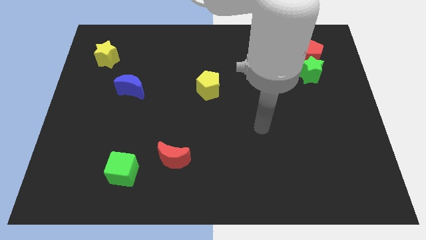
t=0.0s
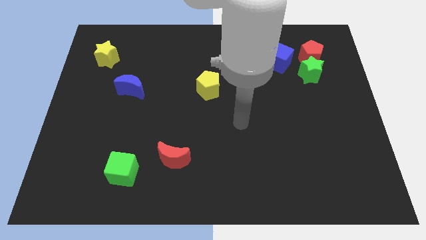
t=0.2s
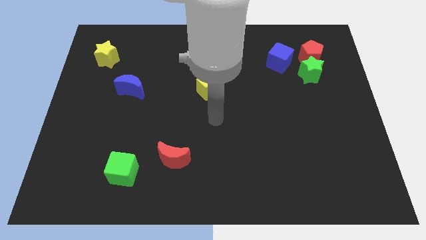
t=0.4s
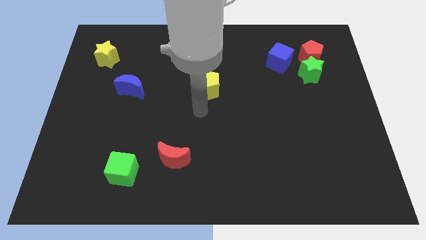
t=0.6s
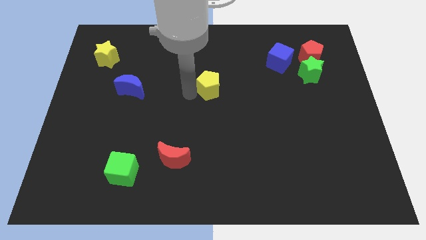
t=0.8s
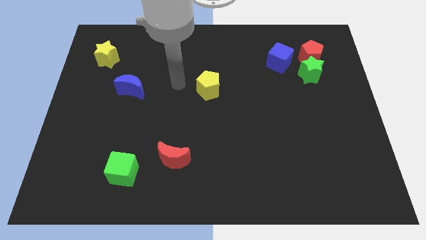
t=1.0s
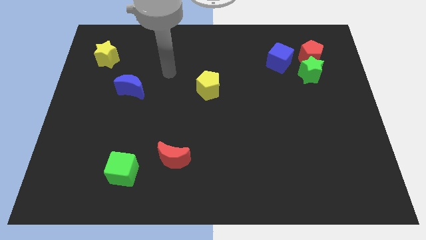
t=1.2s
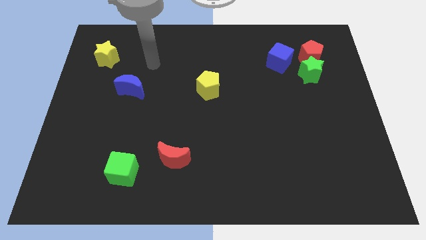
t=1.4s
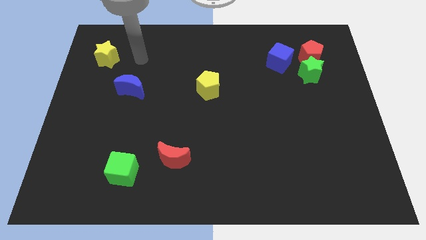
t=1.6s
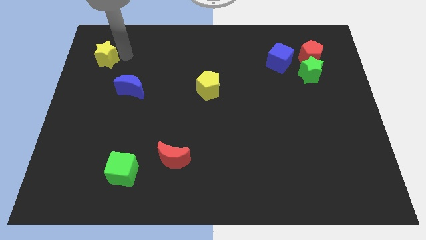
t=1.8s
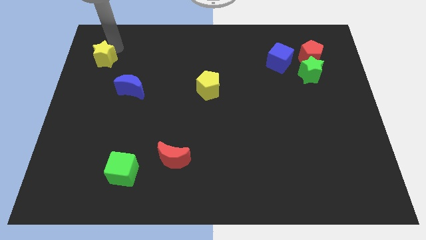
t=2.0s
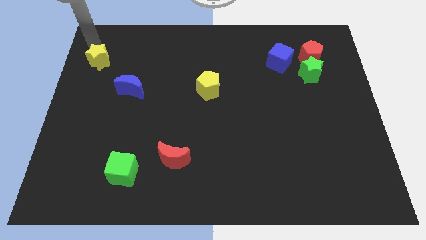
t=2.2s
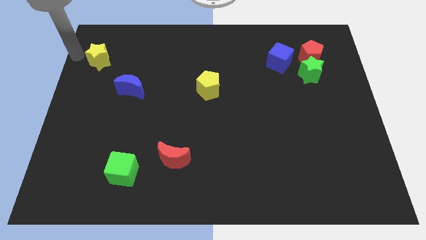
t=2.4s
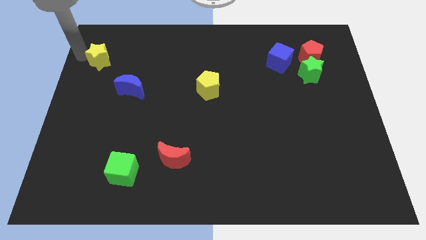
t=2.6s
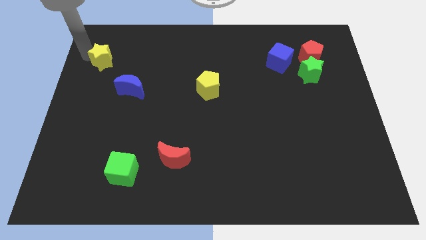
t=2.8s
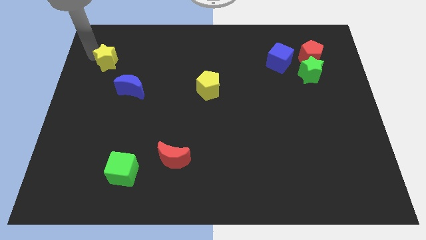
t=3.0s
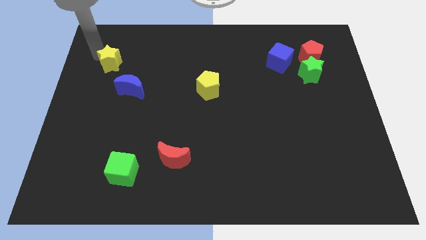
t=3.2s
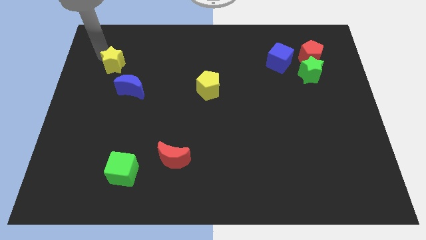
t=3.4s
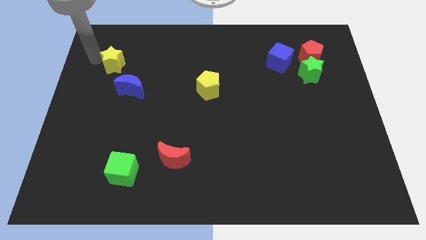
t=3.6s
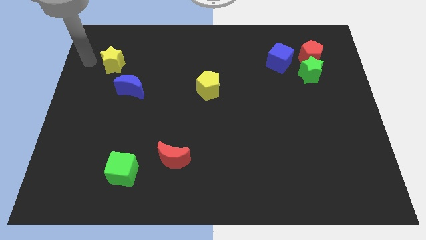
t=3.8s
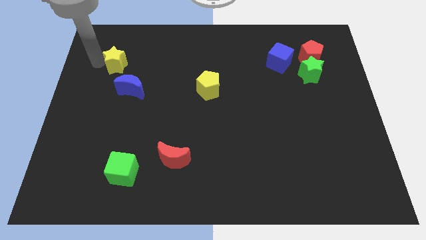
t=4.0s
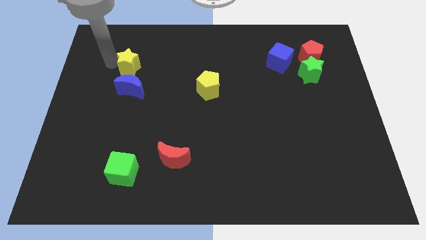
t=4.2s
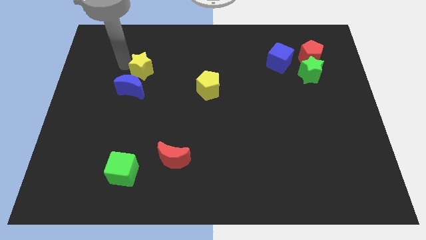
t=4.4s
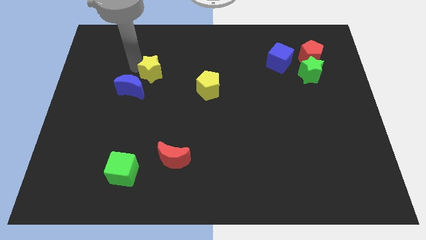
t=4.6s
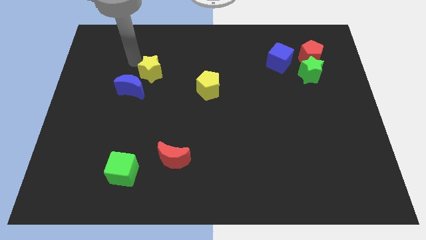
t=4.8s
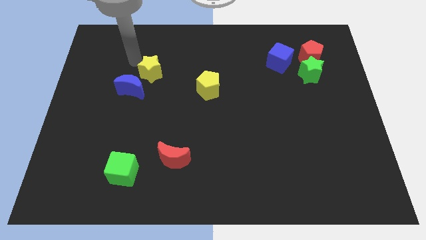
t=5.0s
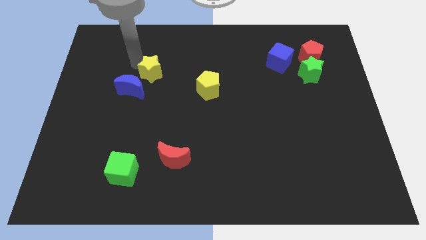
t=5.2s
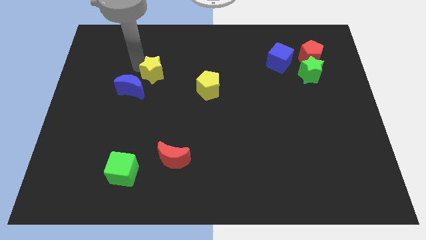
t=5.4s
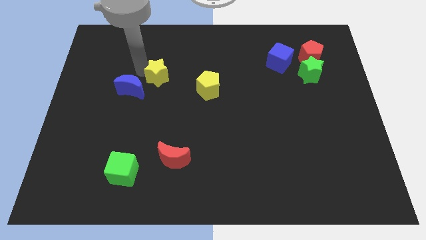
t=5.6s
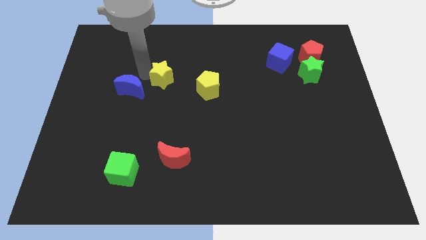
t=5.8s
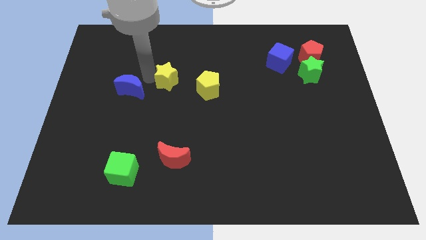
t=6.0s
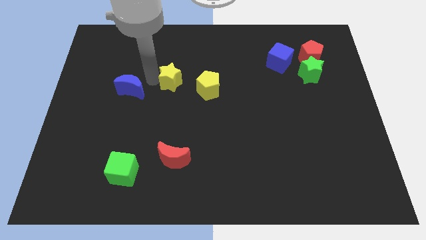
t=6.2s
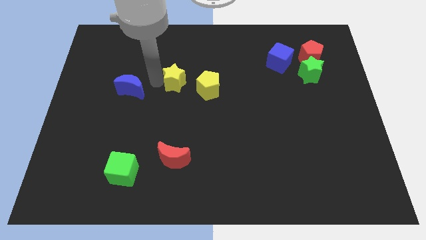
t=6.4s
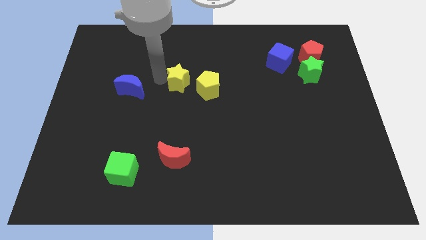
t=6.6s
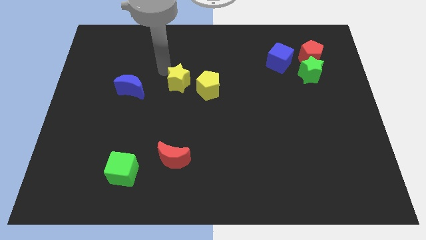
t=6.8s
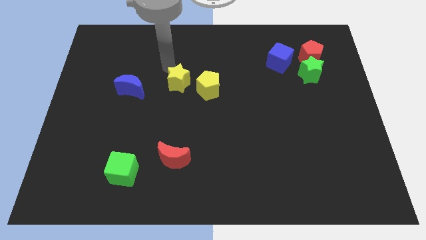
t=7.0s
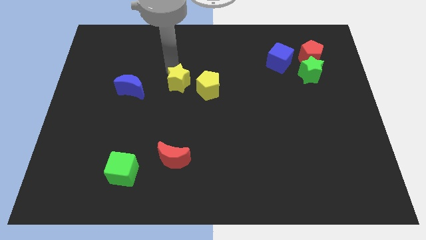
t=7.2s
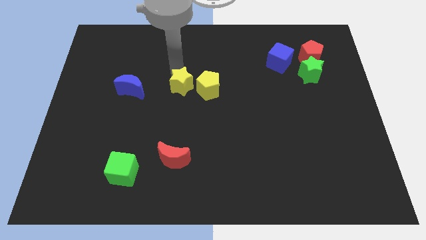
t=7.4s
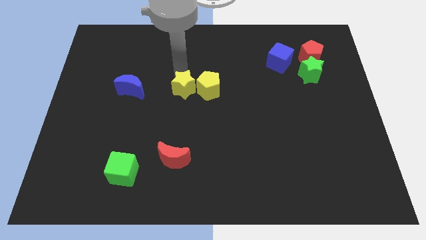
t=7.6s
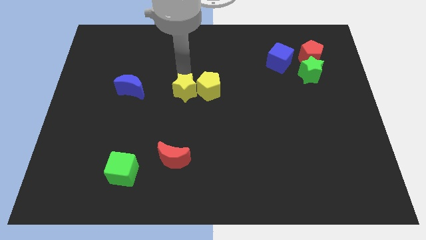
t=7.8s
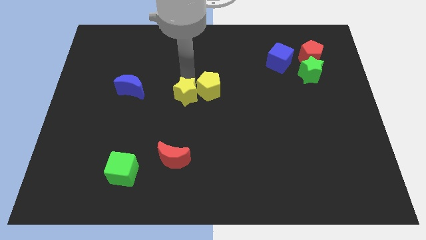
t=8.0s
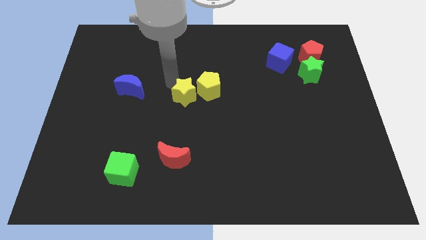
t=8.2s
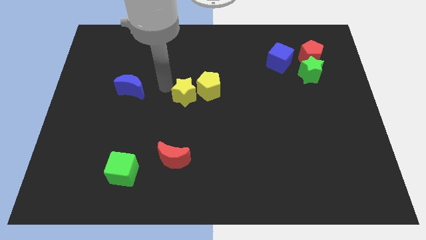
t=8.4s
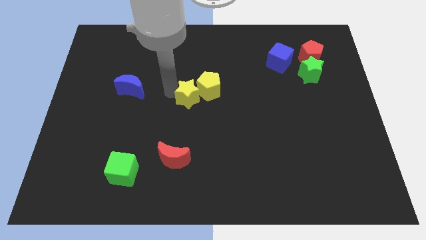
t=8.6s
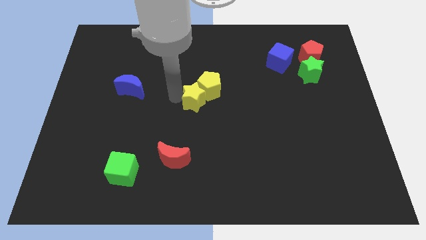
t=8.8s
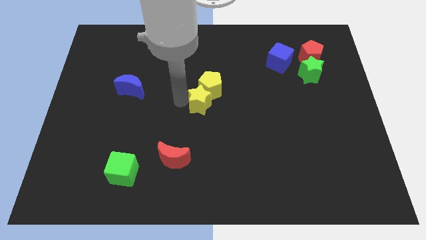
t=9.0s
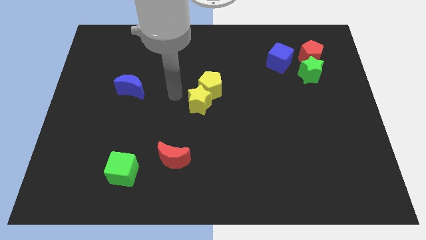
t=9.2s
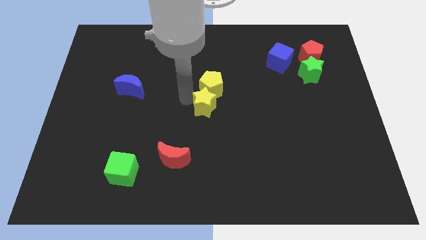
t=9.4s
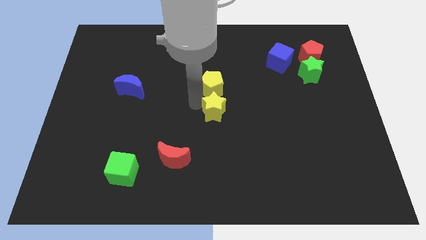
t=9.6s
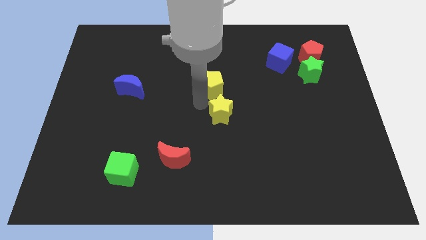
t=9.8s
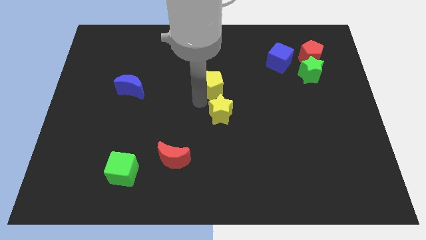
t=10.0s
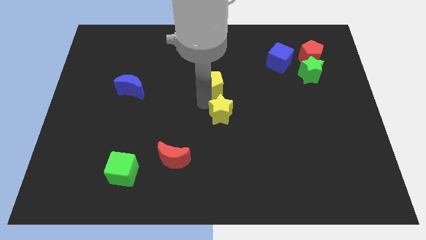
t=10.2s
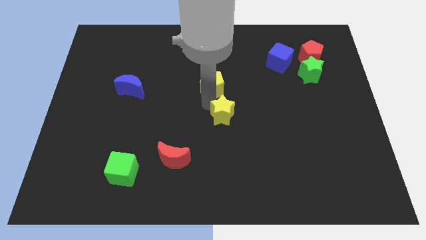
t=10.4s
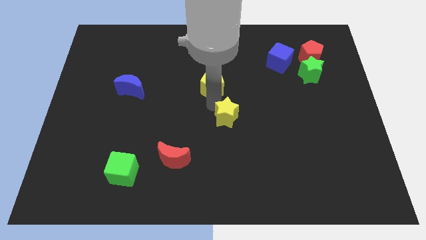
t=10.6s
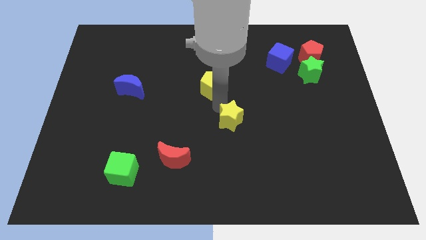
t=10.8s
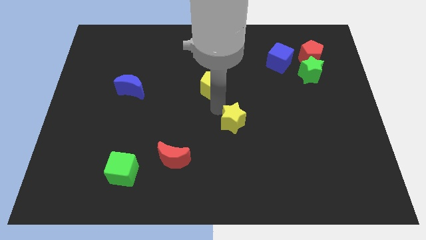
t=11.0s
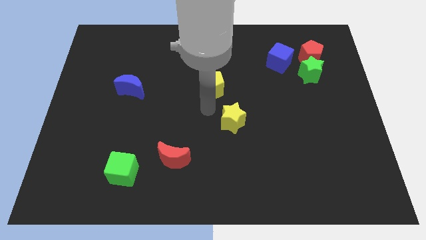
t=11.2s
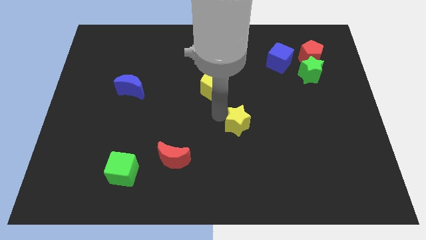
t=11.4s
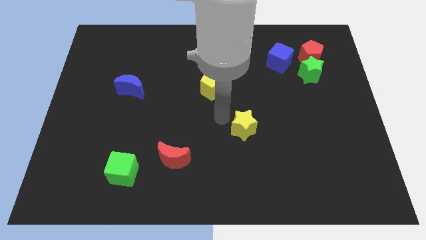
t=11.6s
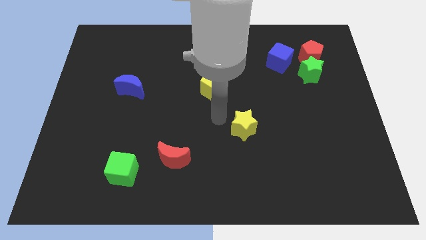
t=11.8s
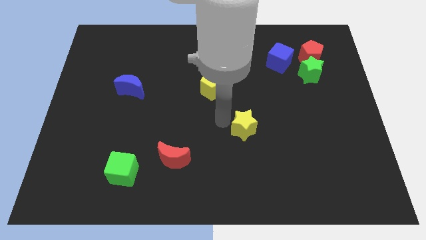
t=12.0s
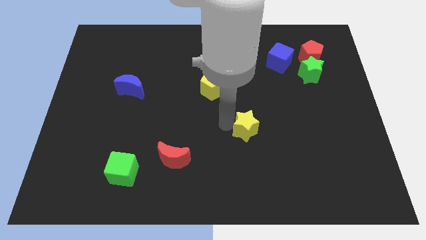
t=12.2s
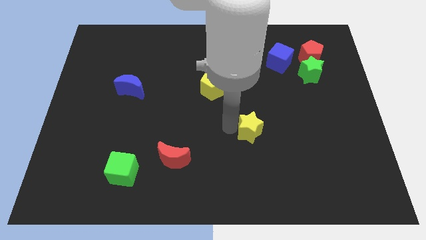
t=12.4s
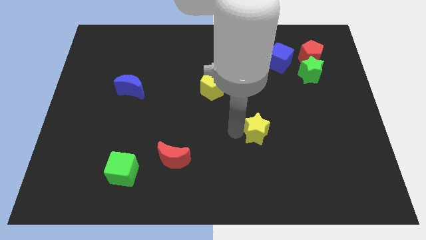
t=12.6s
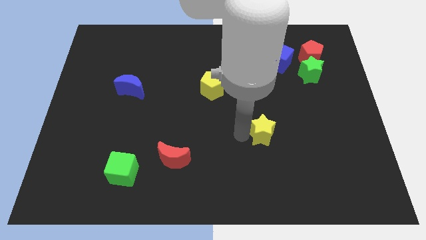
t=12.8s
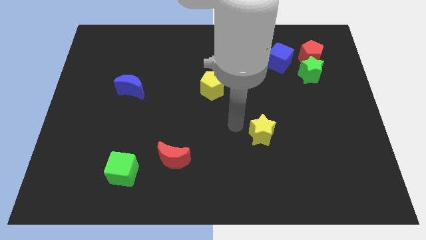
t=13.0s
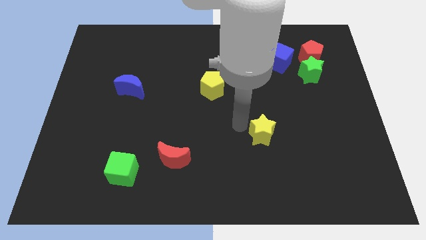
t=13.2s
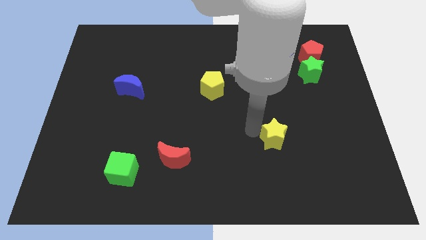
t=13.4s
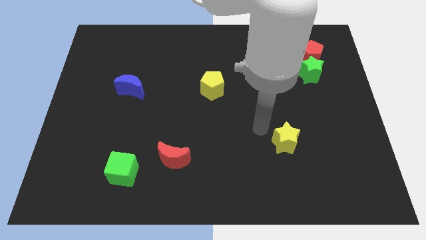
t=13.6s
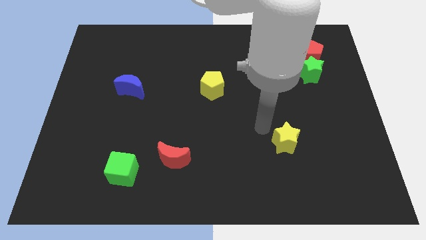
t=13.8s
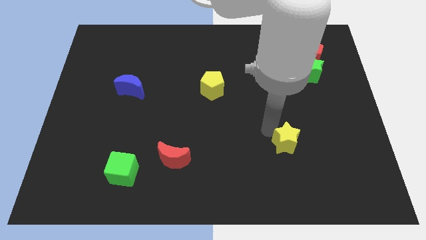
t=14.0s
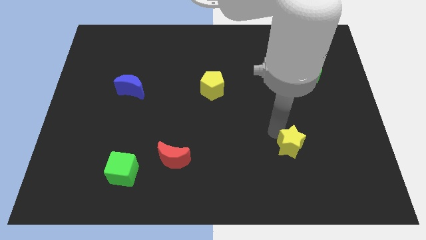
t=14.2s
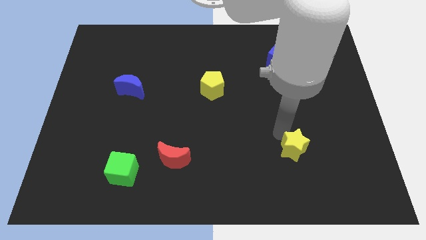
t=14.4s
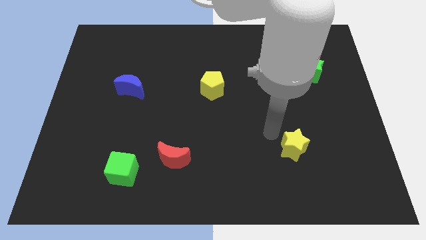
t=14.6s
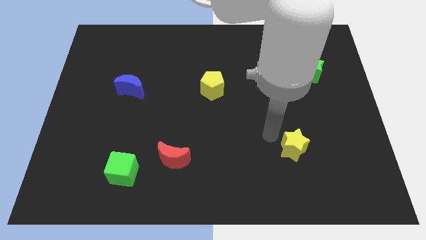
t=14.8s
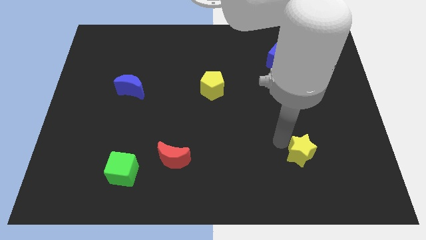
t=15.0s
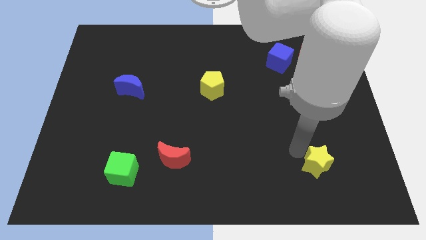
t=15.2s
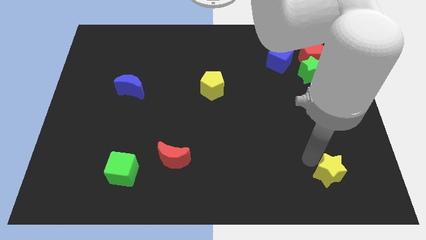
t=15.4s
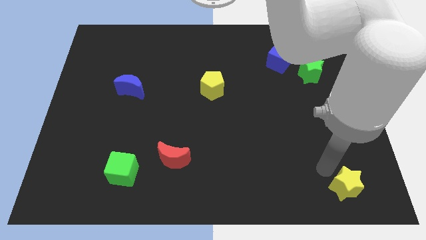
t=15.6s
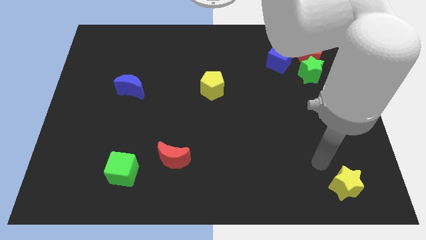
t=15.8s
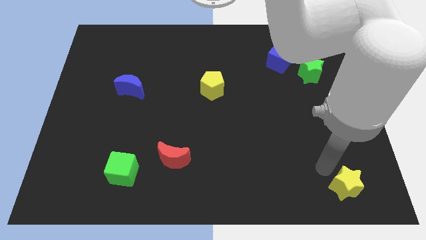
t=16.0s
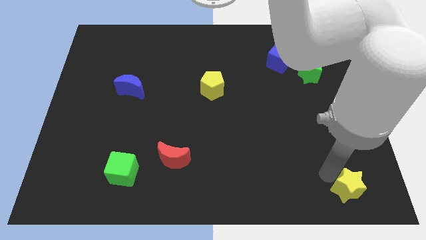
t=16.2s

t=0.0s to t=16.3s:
push the yellow star to the lower right corner
